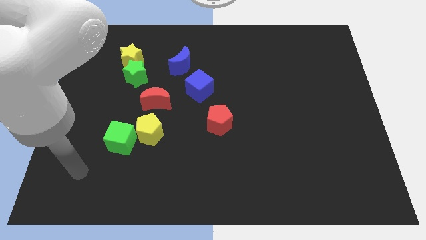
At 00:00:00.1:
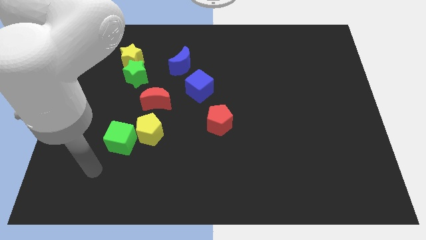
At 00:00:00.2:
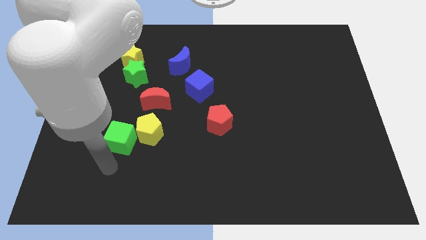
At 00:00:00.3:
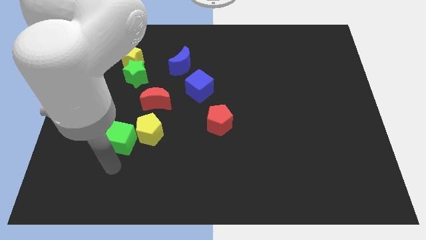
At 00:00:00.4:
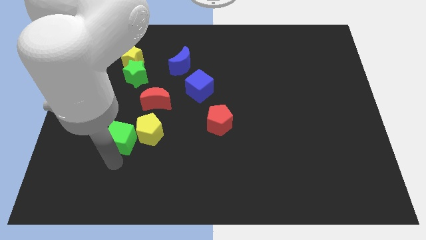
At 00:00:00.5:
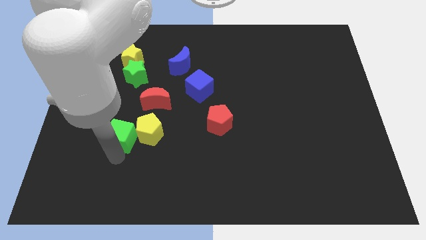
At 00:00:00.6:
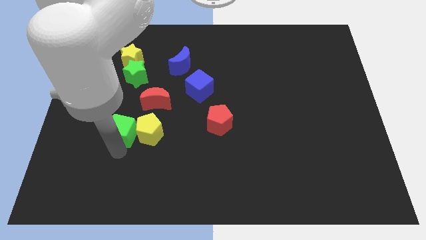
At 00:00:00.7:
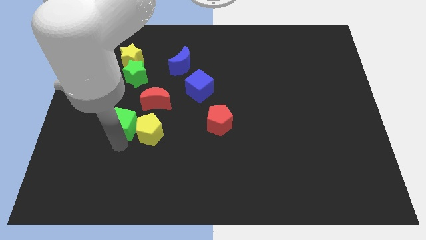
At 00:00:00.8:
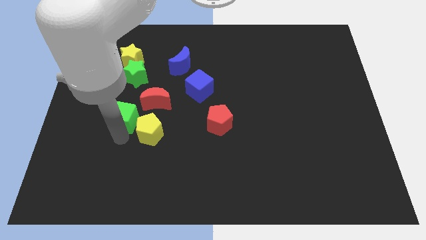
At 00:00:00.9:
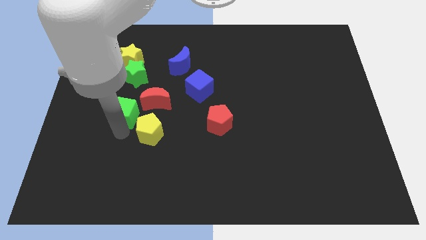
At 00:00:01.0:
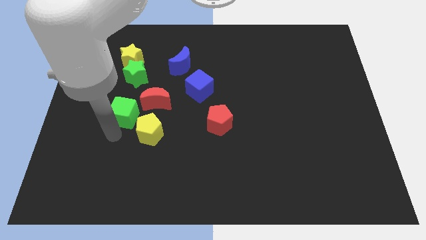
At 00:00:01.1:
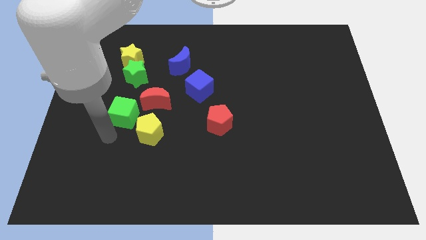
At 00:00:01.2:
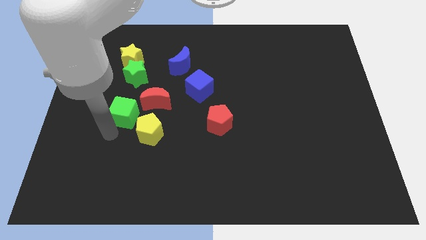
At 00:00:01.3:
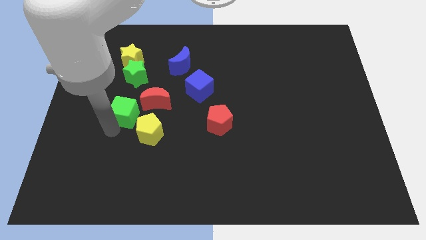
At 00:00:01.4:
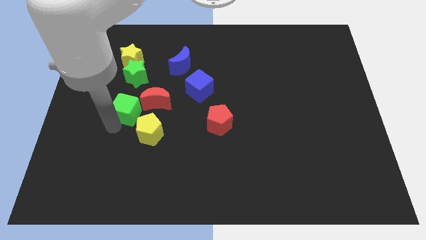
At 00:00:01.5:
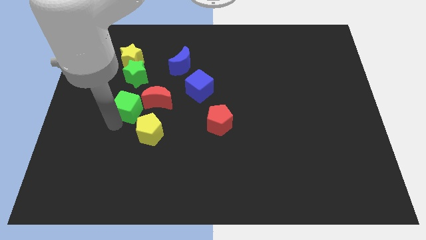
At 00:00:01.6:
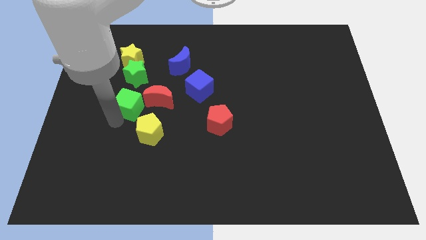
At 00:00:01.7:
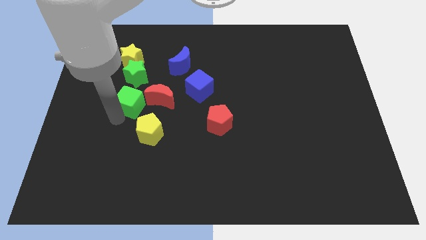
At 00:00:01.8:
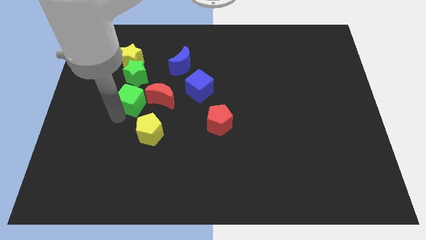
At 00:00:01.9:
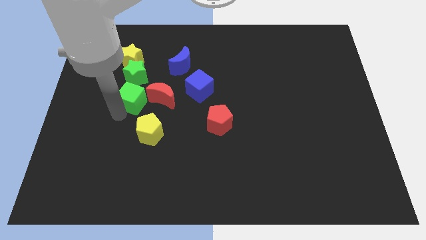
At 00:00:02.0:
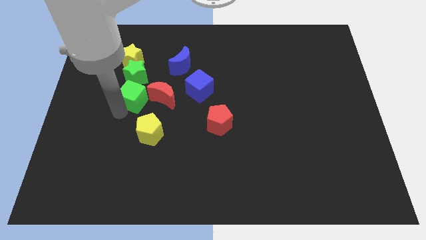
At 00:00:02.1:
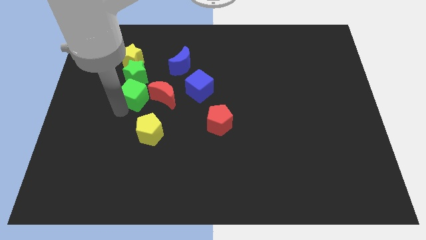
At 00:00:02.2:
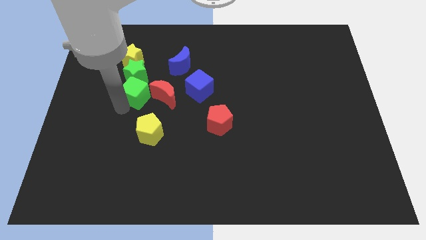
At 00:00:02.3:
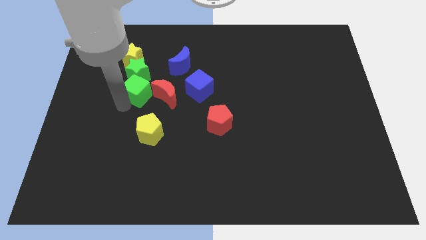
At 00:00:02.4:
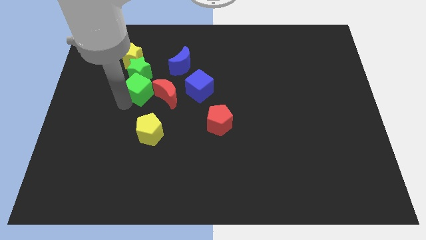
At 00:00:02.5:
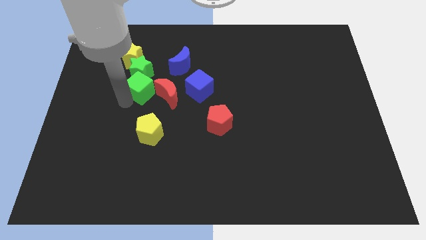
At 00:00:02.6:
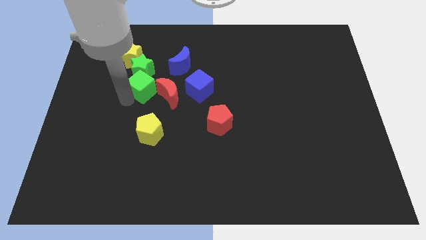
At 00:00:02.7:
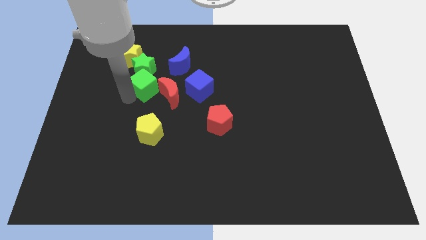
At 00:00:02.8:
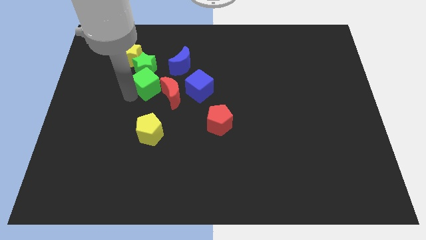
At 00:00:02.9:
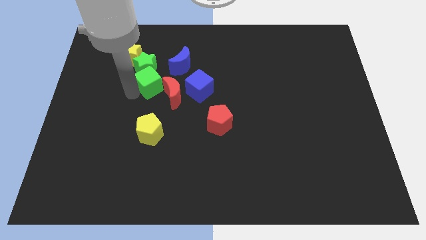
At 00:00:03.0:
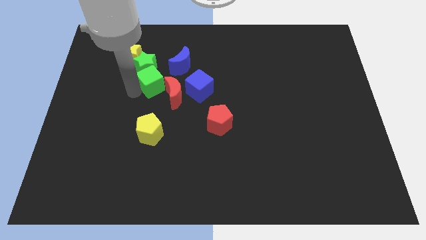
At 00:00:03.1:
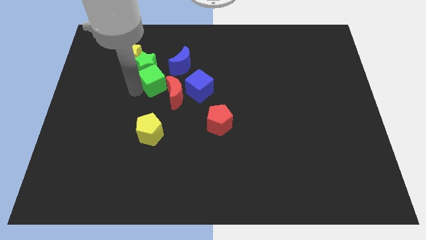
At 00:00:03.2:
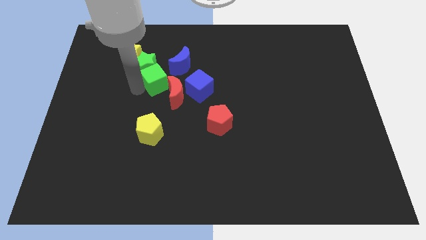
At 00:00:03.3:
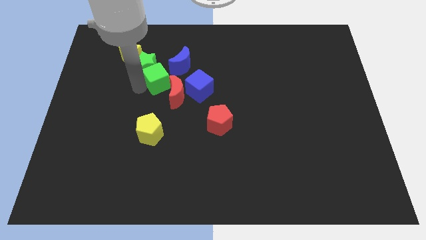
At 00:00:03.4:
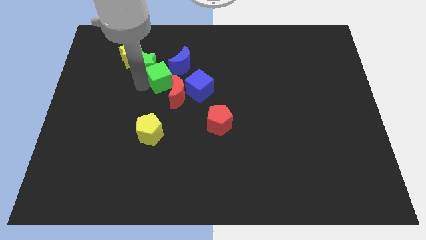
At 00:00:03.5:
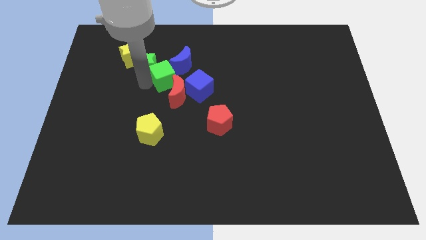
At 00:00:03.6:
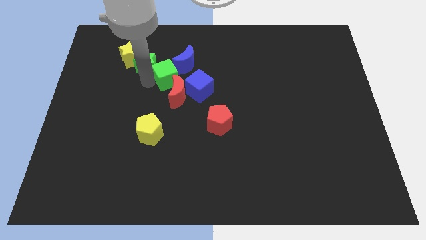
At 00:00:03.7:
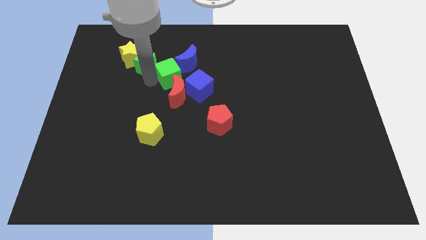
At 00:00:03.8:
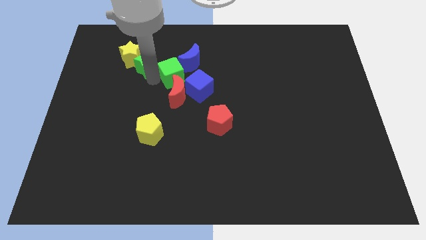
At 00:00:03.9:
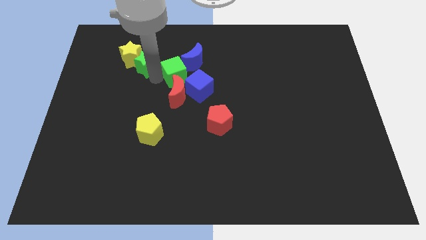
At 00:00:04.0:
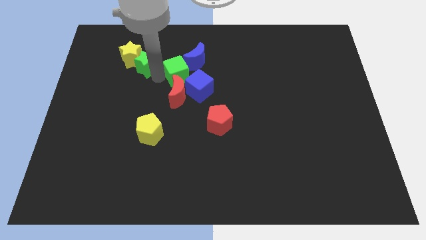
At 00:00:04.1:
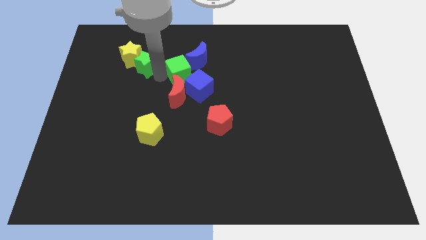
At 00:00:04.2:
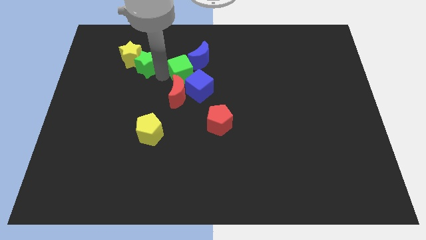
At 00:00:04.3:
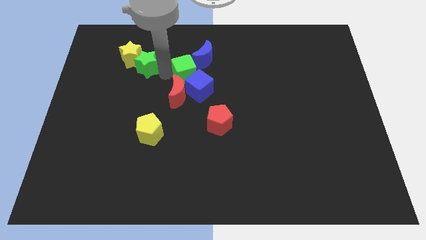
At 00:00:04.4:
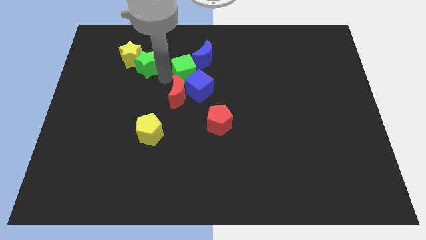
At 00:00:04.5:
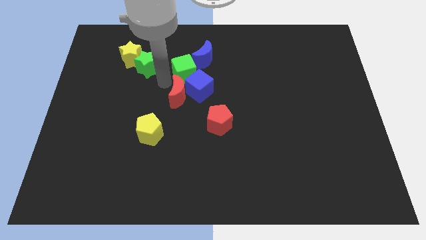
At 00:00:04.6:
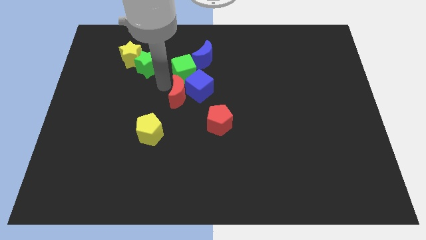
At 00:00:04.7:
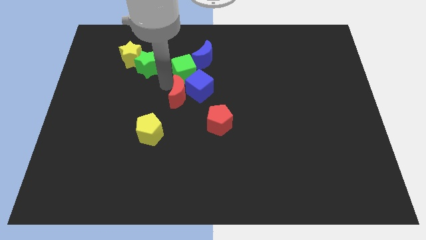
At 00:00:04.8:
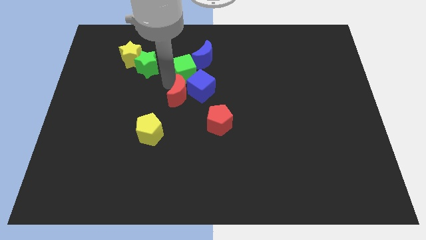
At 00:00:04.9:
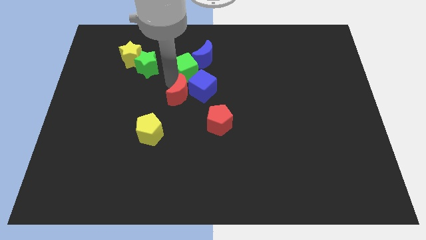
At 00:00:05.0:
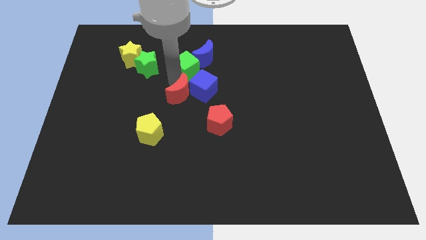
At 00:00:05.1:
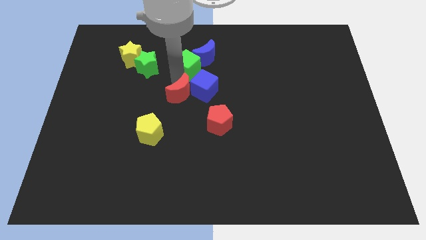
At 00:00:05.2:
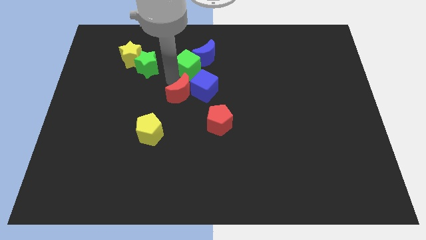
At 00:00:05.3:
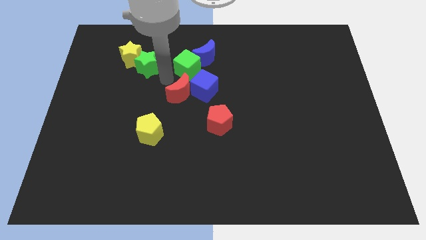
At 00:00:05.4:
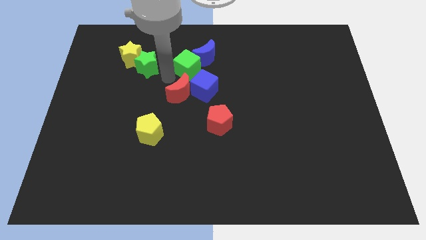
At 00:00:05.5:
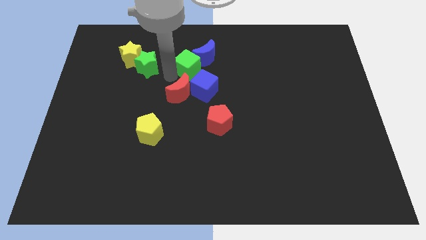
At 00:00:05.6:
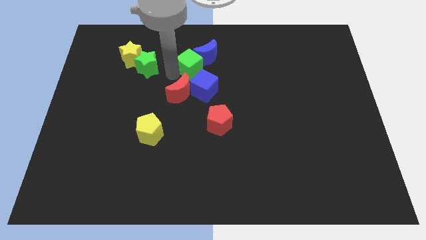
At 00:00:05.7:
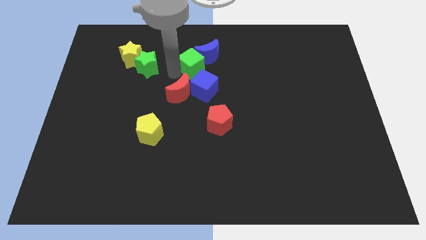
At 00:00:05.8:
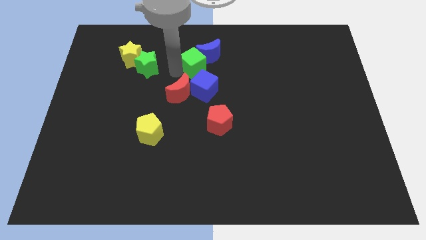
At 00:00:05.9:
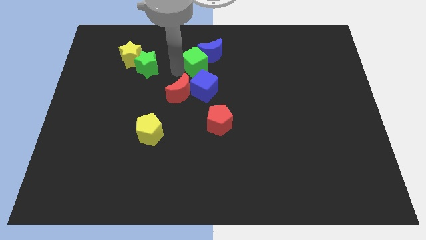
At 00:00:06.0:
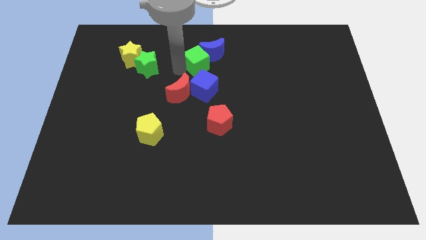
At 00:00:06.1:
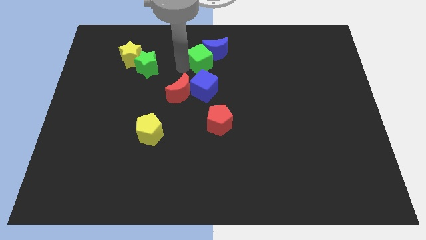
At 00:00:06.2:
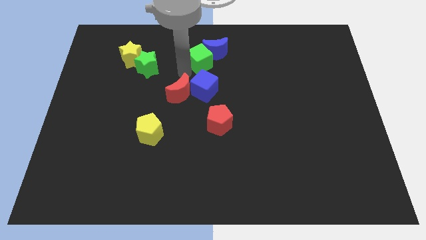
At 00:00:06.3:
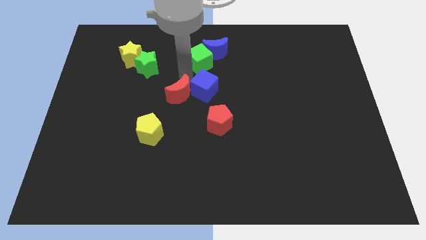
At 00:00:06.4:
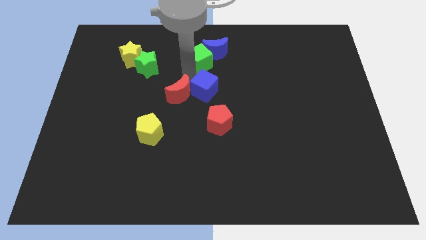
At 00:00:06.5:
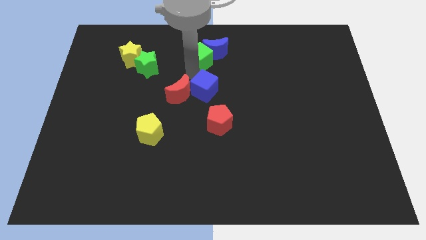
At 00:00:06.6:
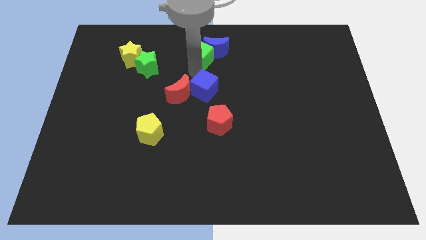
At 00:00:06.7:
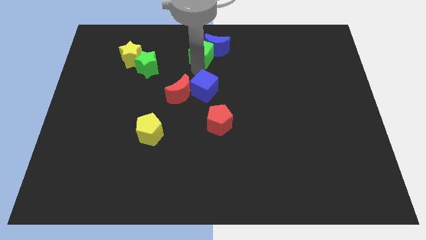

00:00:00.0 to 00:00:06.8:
put the green cube to the towards your base

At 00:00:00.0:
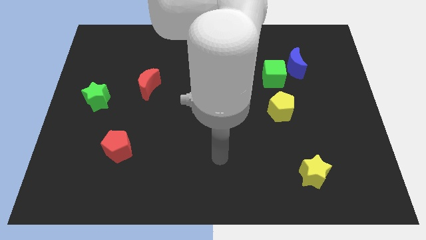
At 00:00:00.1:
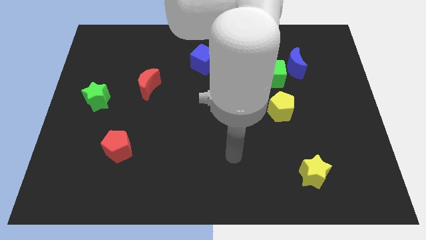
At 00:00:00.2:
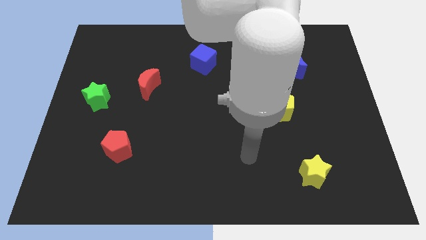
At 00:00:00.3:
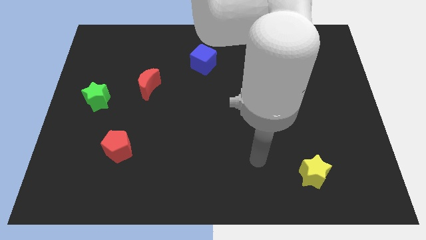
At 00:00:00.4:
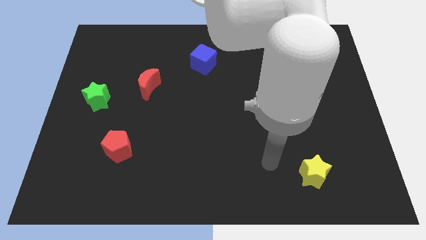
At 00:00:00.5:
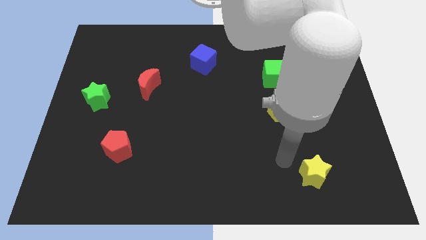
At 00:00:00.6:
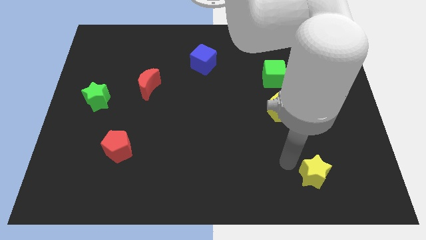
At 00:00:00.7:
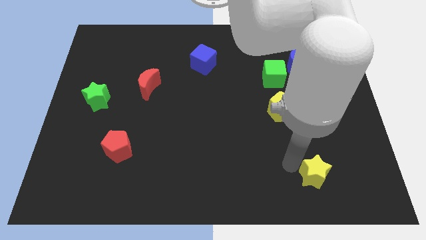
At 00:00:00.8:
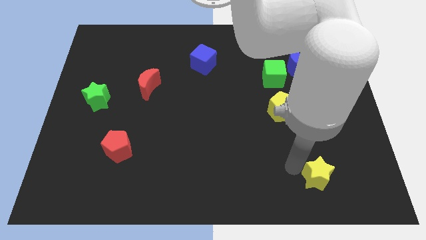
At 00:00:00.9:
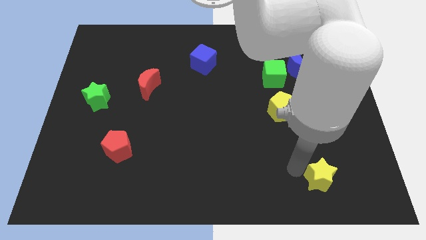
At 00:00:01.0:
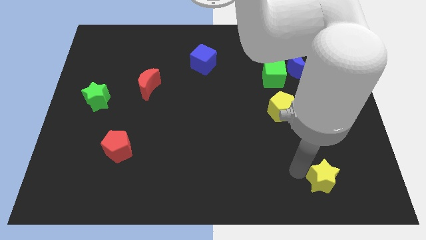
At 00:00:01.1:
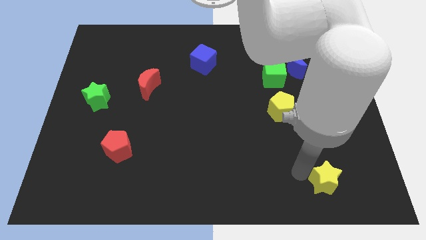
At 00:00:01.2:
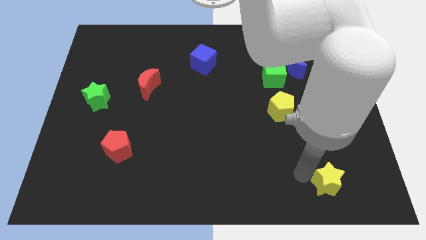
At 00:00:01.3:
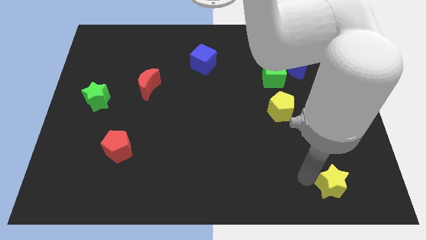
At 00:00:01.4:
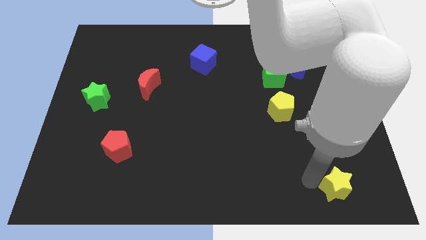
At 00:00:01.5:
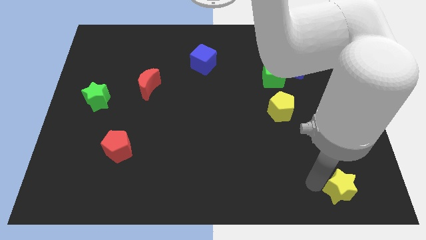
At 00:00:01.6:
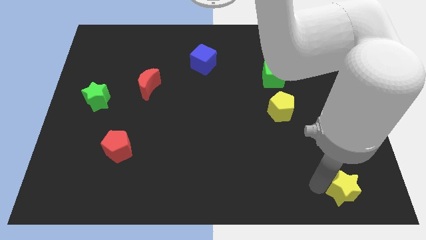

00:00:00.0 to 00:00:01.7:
put the yellow star to the bottom right corner
